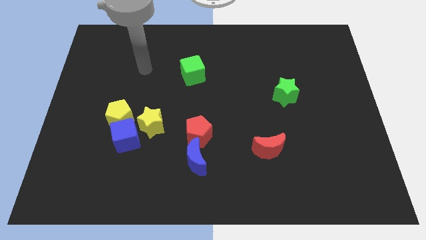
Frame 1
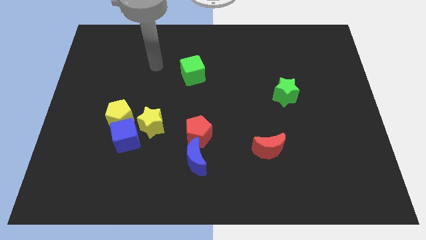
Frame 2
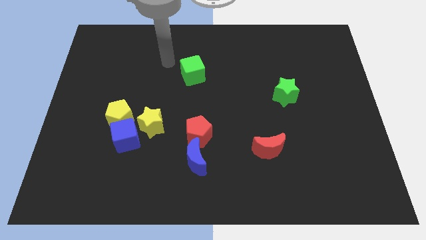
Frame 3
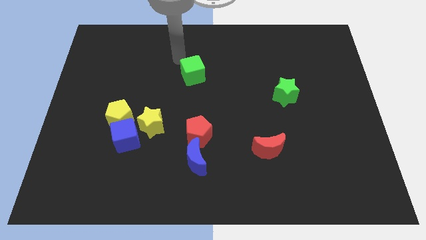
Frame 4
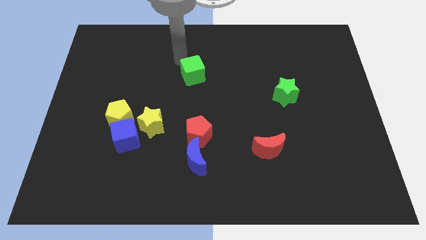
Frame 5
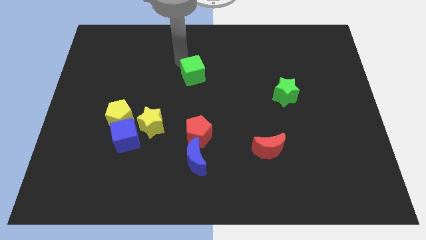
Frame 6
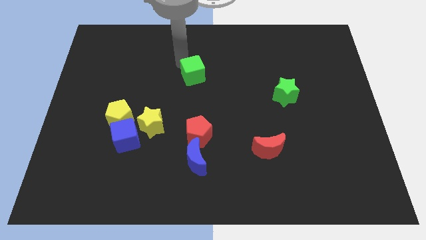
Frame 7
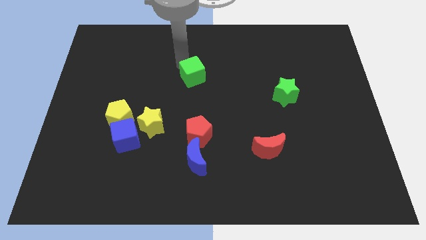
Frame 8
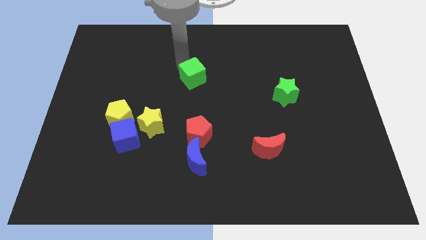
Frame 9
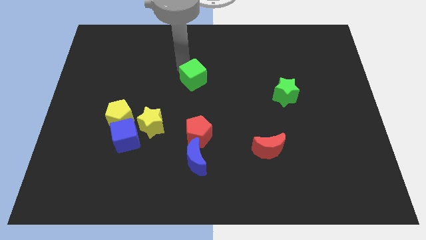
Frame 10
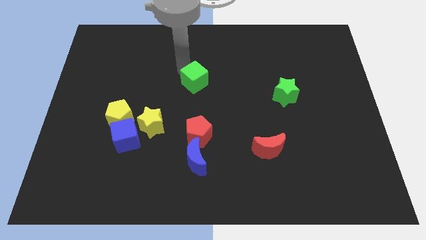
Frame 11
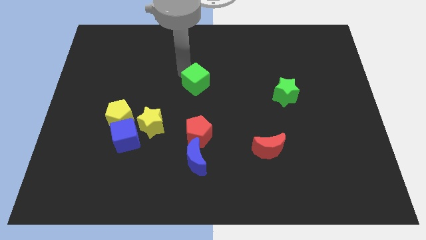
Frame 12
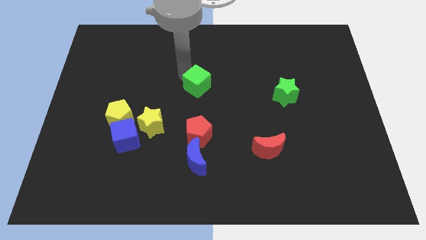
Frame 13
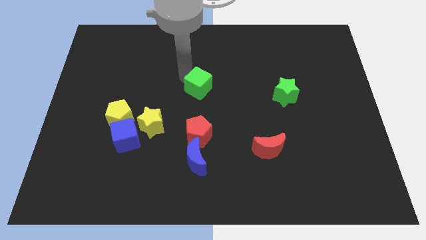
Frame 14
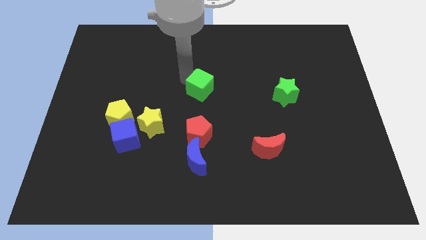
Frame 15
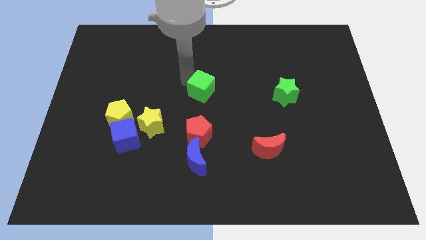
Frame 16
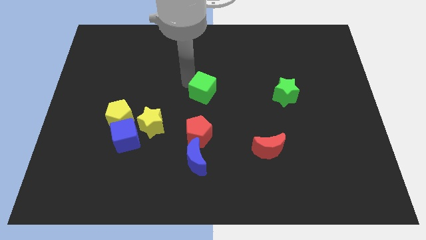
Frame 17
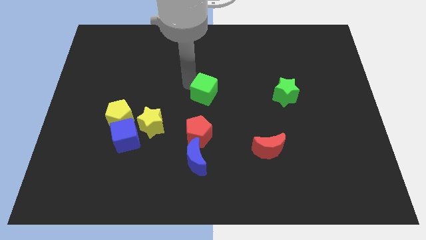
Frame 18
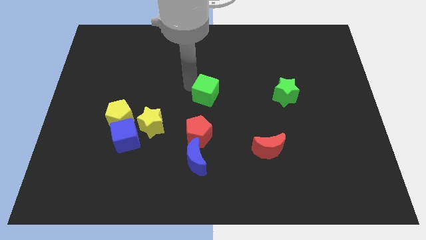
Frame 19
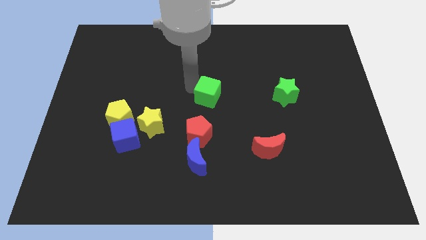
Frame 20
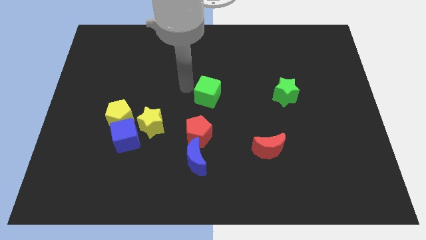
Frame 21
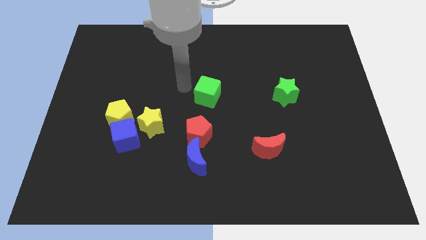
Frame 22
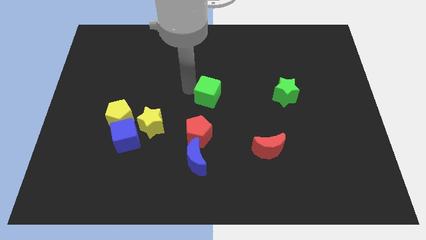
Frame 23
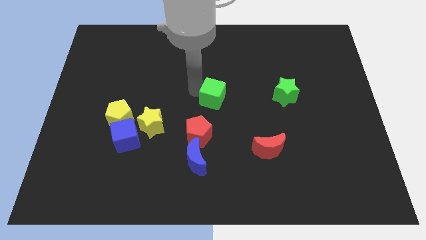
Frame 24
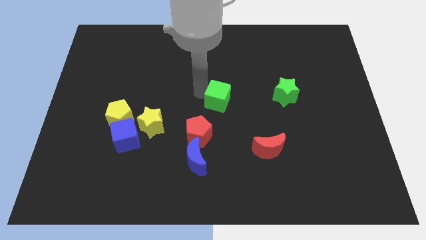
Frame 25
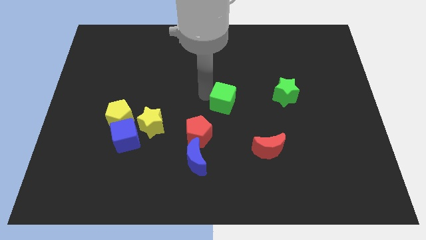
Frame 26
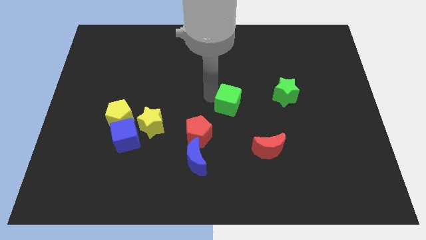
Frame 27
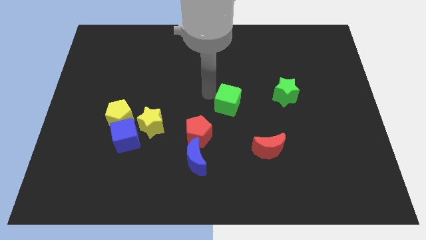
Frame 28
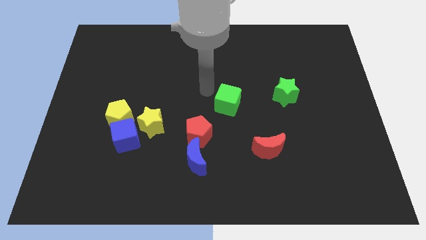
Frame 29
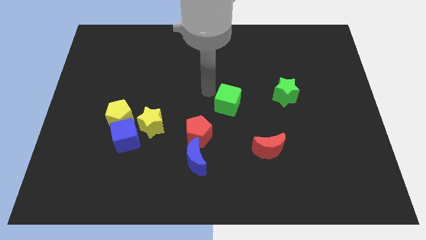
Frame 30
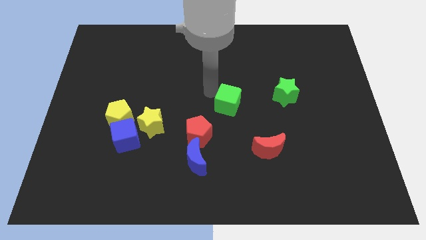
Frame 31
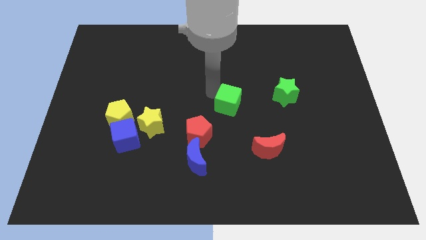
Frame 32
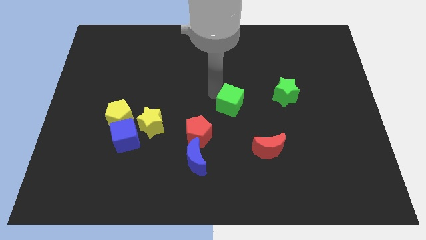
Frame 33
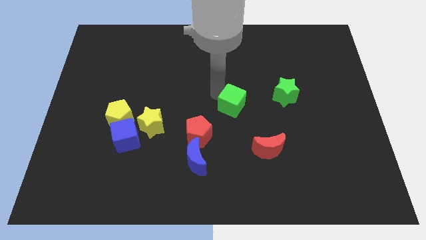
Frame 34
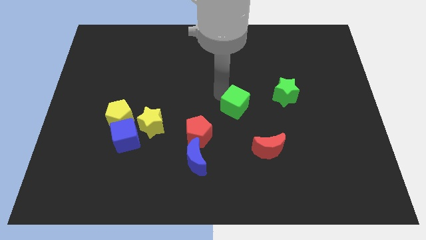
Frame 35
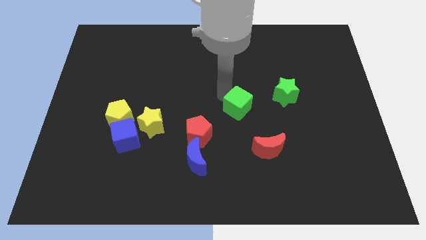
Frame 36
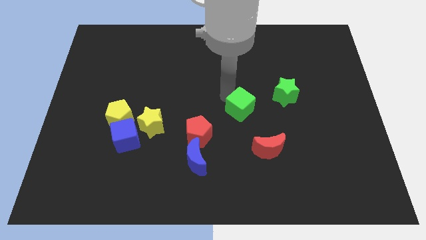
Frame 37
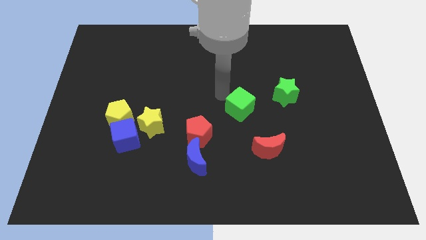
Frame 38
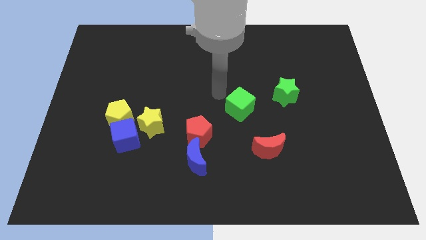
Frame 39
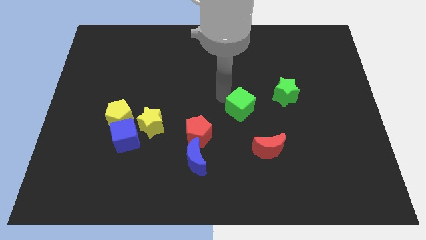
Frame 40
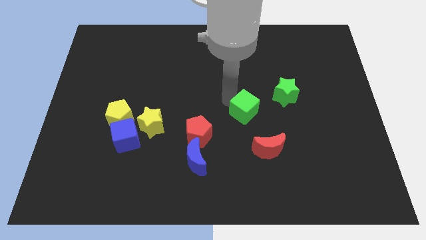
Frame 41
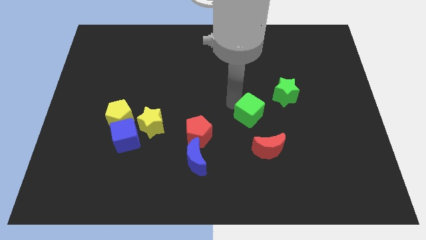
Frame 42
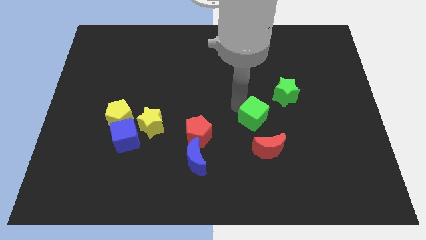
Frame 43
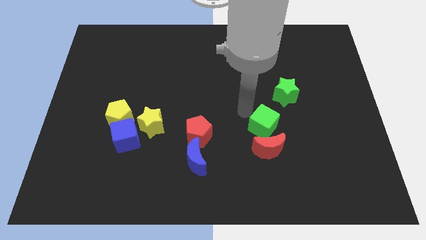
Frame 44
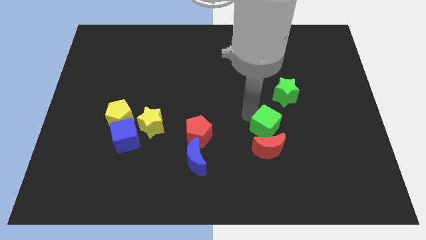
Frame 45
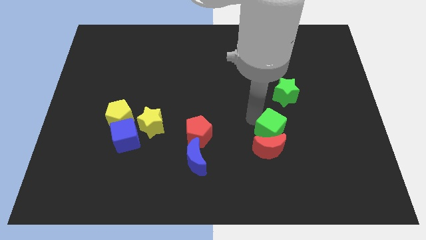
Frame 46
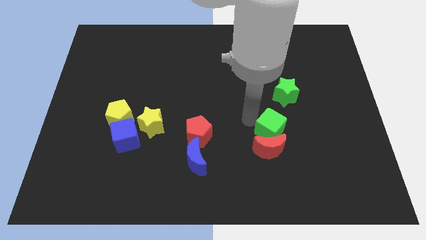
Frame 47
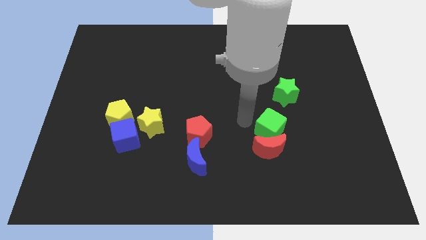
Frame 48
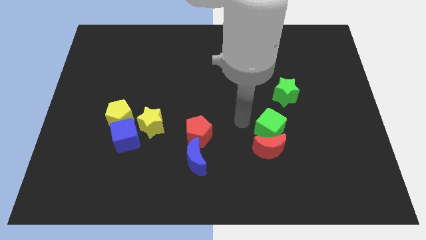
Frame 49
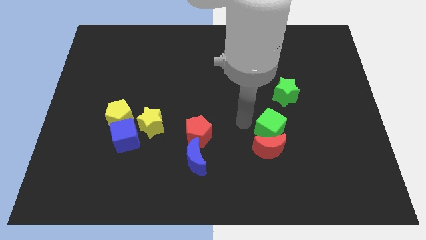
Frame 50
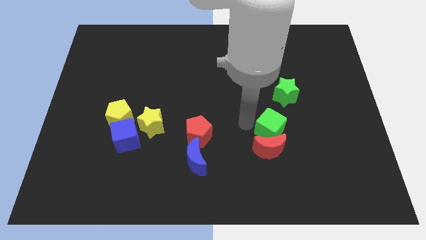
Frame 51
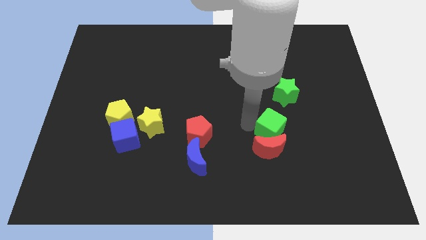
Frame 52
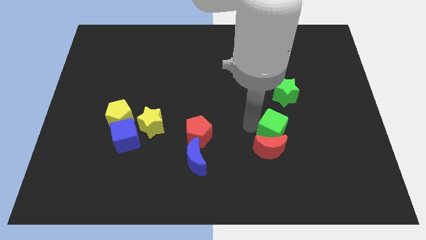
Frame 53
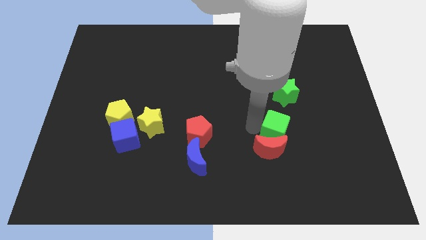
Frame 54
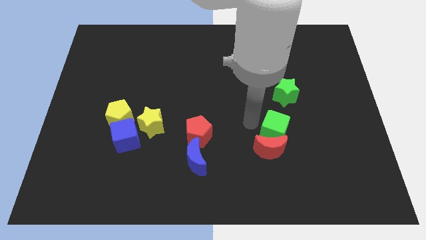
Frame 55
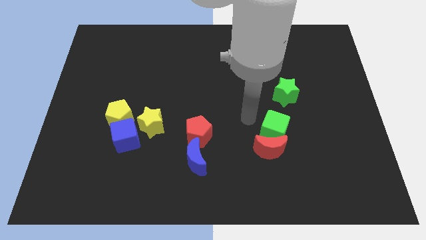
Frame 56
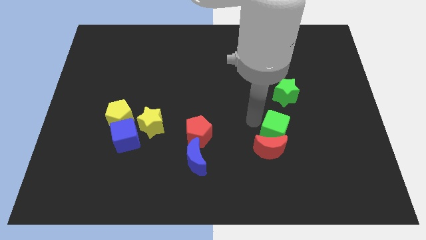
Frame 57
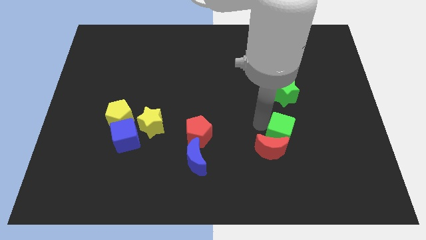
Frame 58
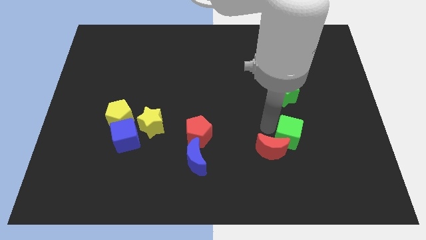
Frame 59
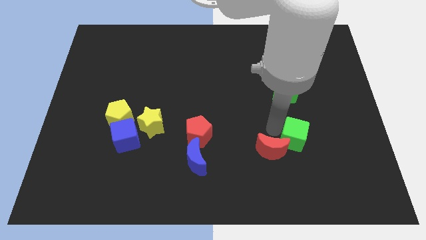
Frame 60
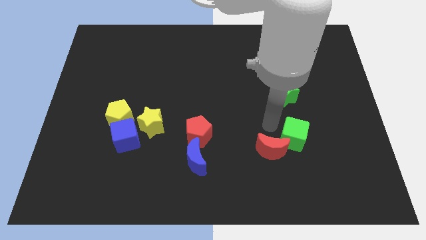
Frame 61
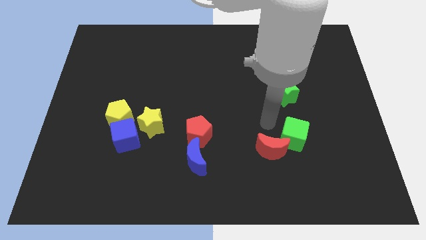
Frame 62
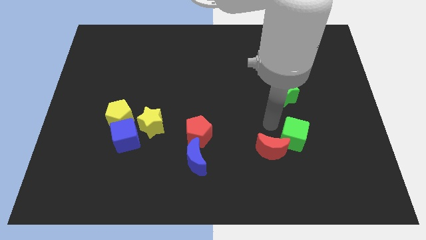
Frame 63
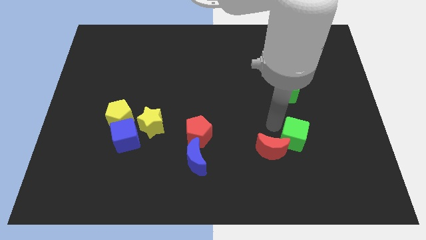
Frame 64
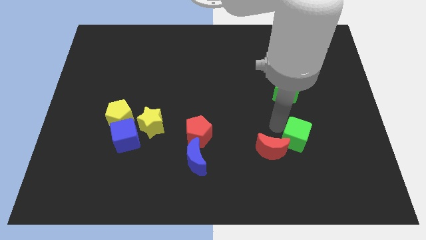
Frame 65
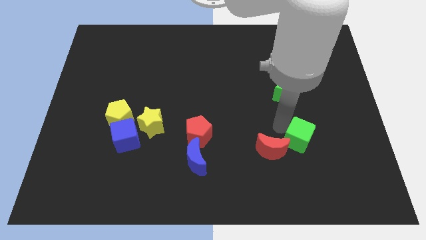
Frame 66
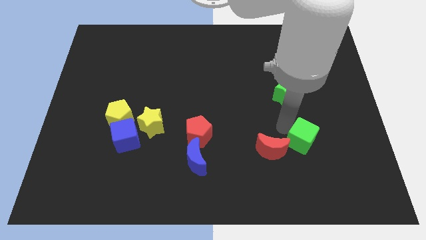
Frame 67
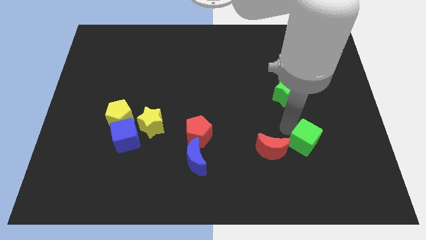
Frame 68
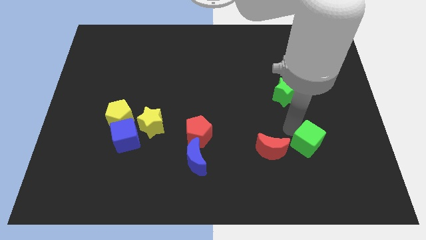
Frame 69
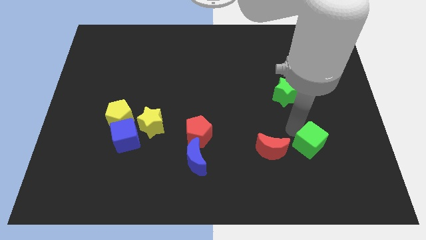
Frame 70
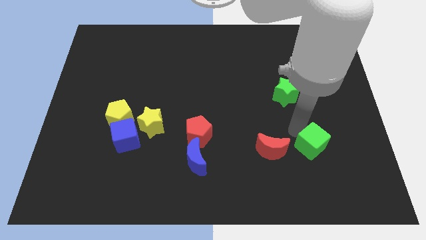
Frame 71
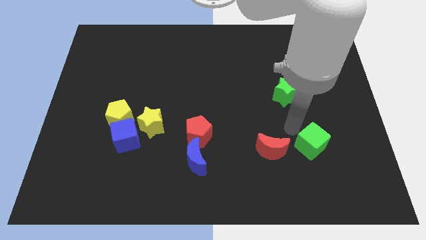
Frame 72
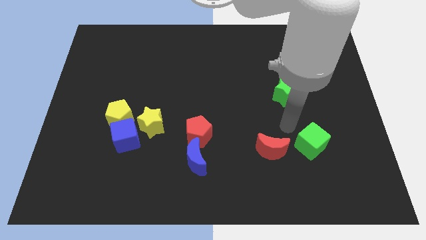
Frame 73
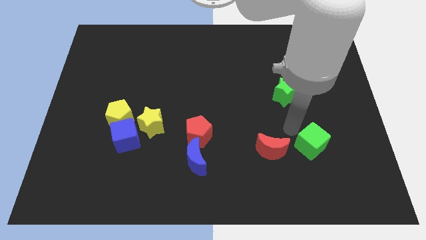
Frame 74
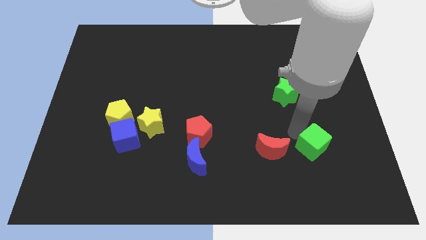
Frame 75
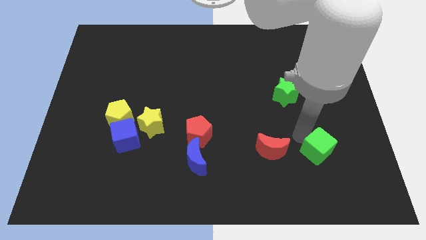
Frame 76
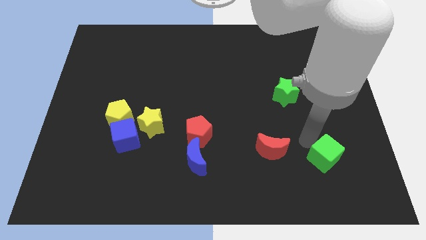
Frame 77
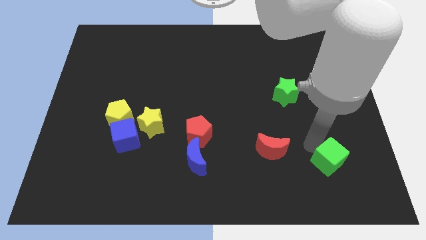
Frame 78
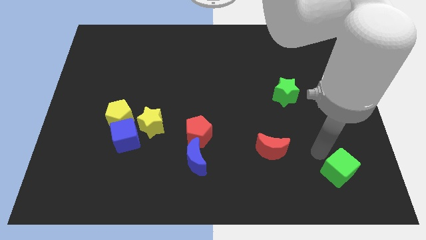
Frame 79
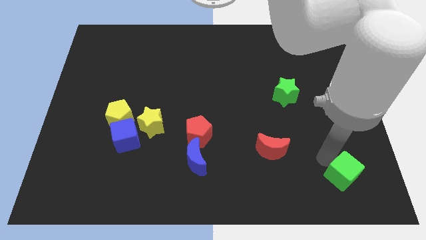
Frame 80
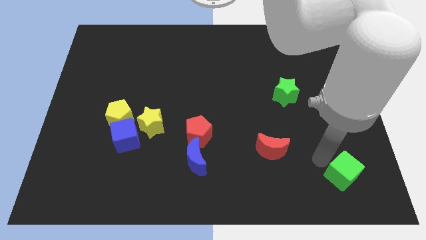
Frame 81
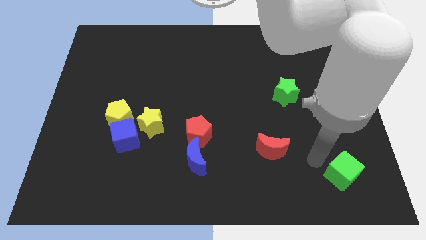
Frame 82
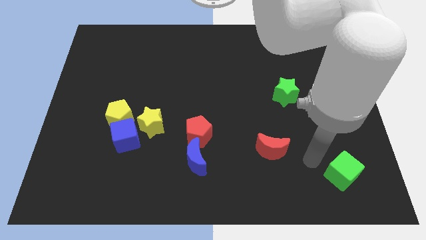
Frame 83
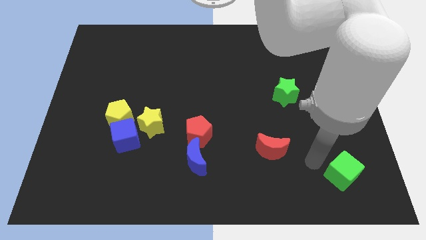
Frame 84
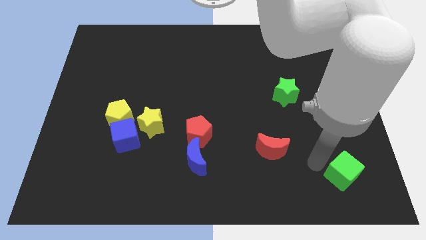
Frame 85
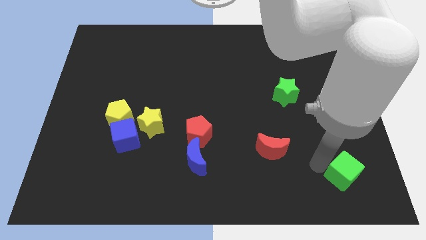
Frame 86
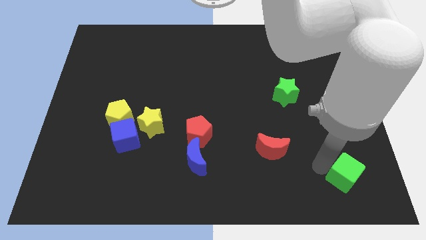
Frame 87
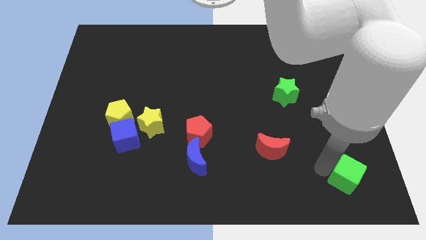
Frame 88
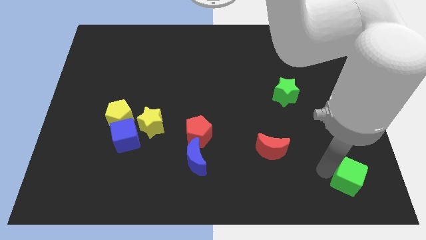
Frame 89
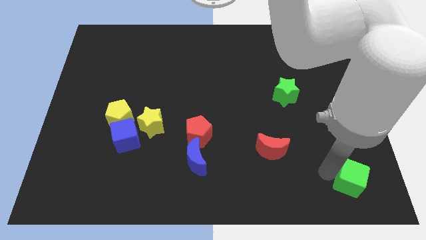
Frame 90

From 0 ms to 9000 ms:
push the green cube to the bottom right
